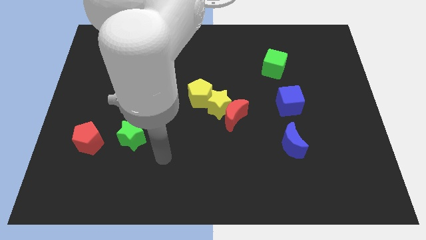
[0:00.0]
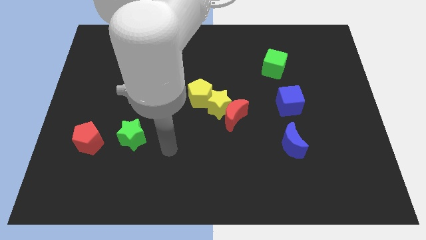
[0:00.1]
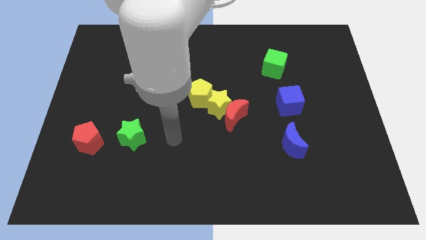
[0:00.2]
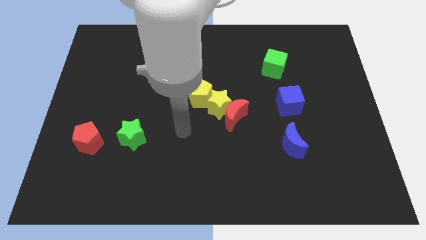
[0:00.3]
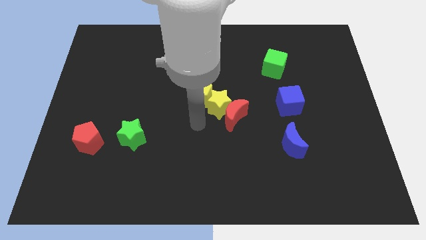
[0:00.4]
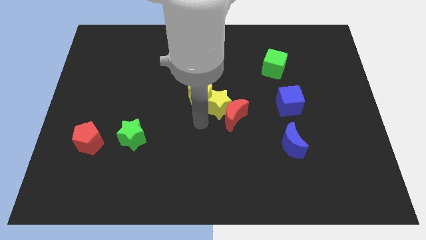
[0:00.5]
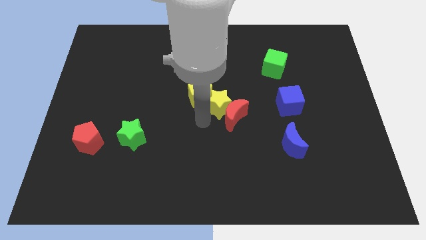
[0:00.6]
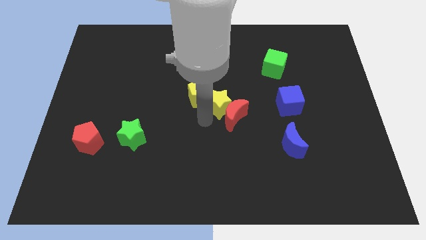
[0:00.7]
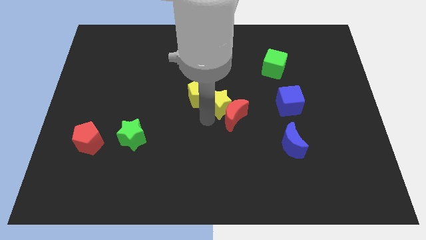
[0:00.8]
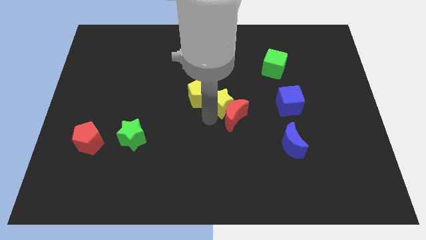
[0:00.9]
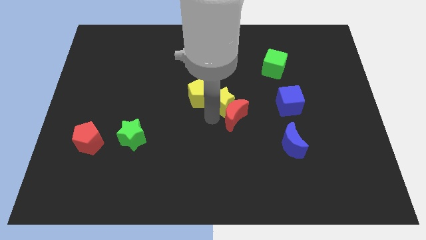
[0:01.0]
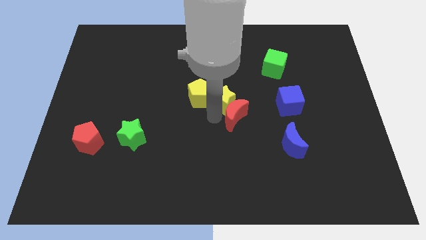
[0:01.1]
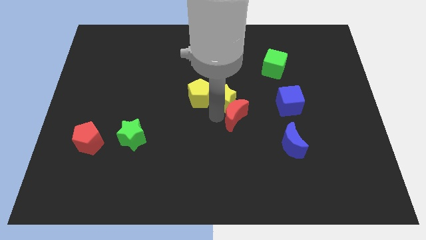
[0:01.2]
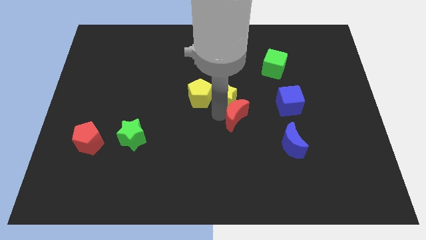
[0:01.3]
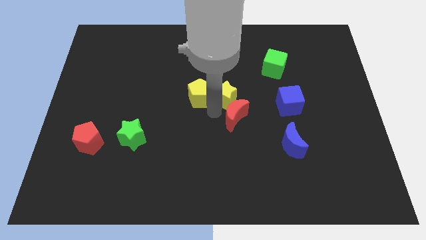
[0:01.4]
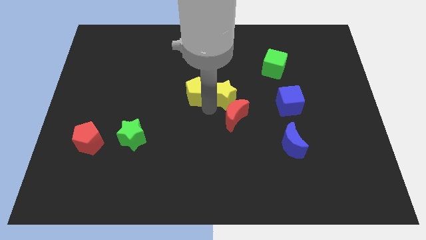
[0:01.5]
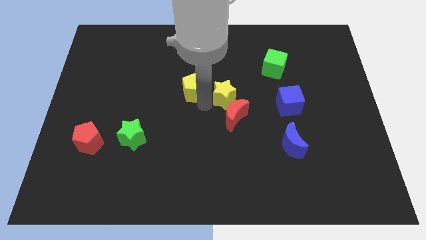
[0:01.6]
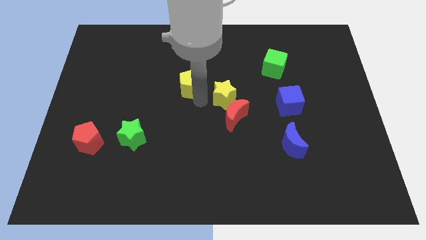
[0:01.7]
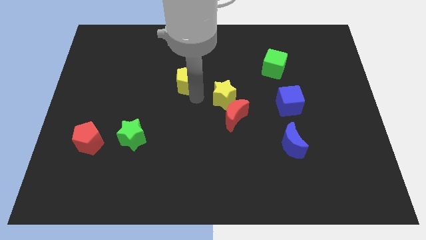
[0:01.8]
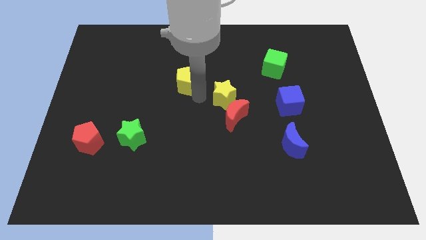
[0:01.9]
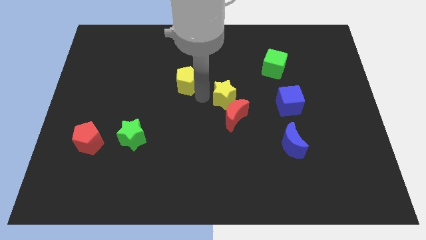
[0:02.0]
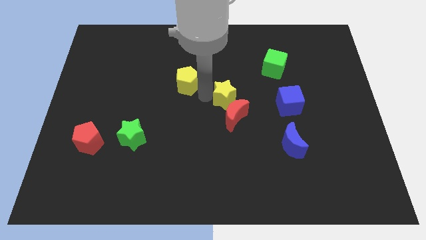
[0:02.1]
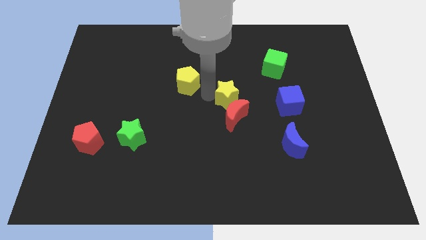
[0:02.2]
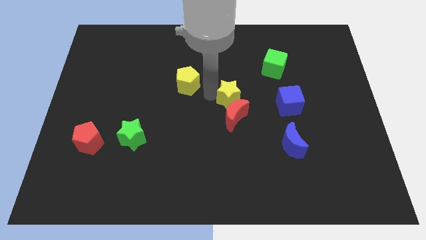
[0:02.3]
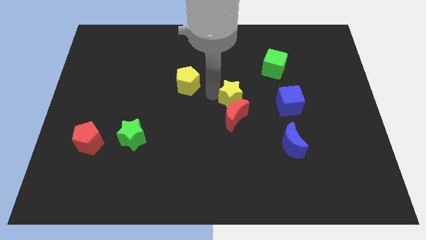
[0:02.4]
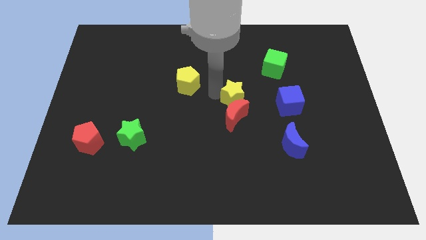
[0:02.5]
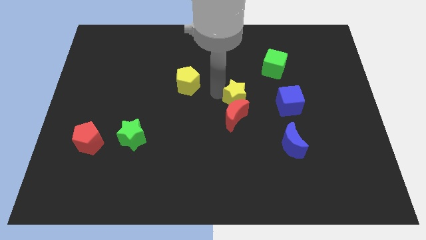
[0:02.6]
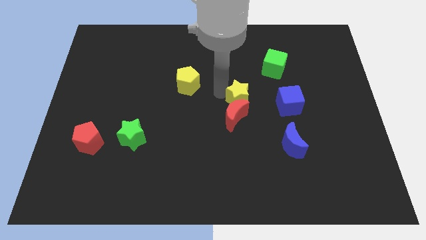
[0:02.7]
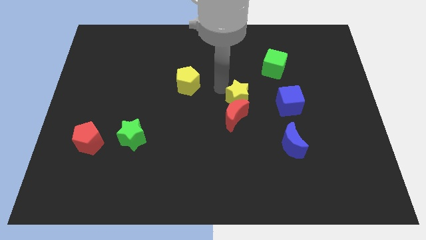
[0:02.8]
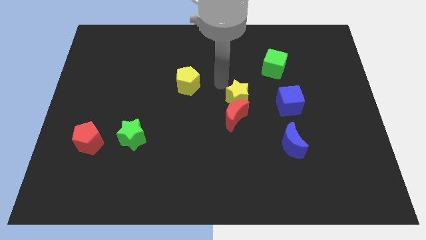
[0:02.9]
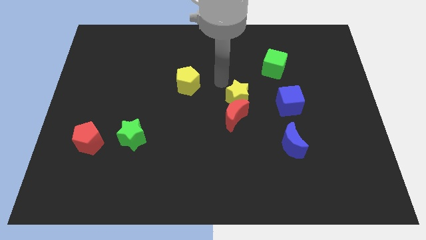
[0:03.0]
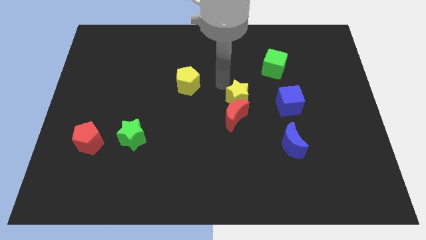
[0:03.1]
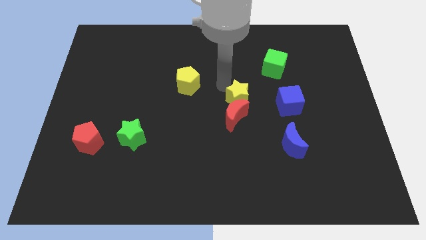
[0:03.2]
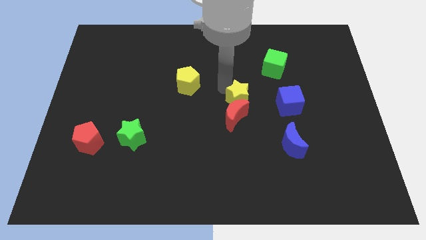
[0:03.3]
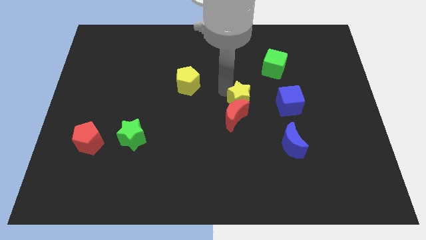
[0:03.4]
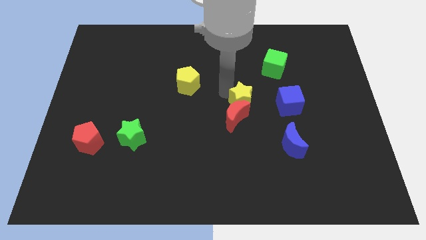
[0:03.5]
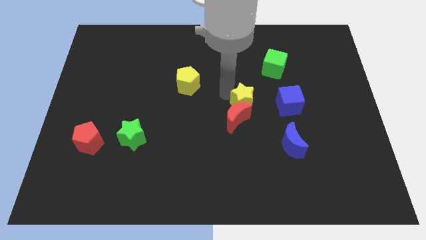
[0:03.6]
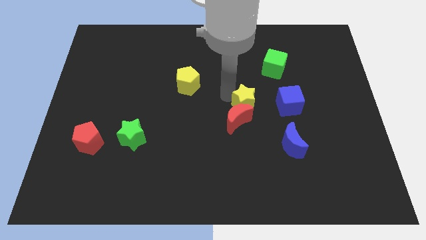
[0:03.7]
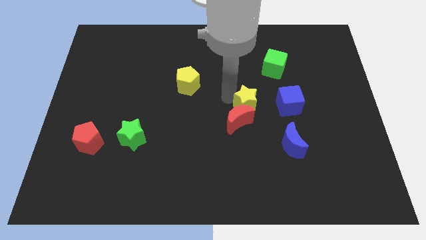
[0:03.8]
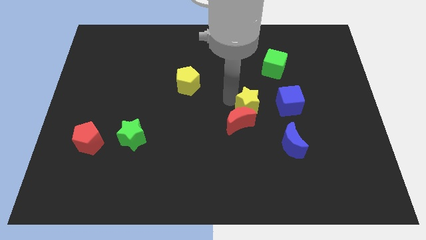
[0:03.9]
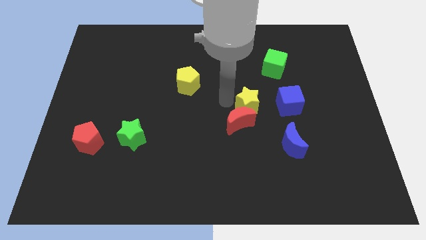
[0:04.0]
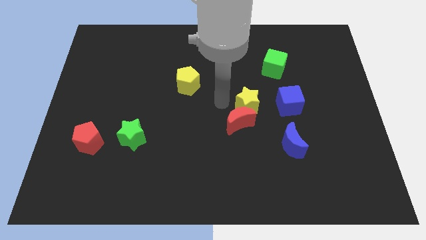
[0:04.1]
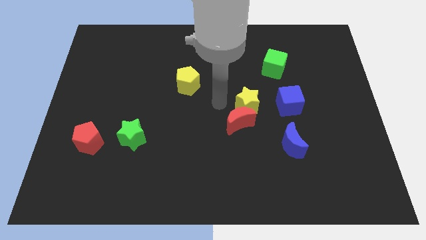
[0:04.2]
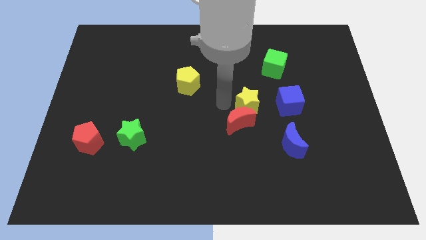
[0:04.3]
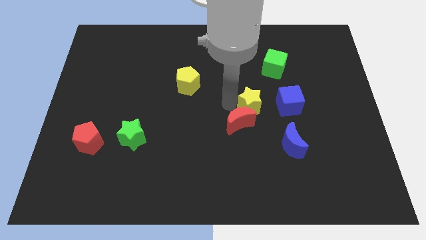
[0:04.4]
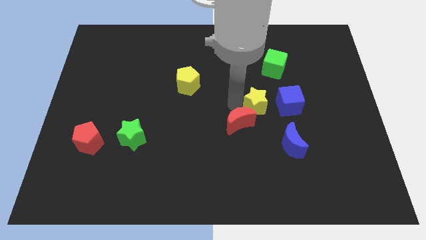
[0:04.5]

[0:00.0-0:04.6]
separate the yellow star from the red moon and yellow pentagon

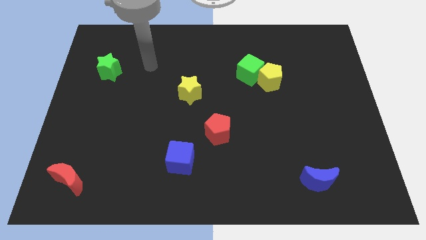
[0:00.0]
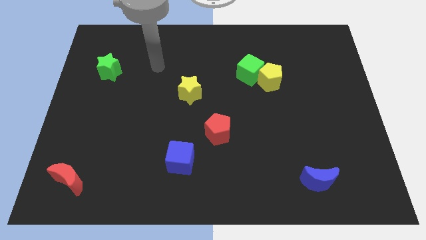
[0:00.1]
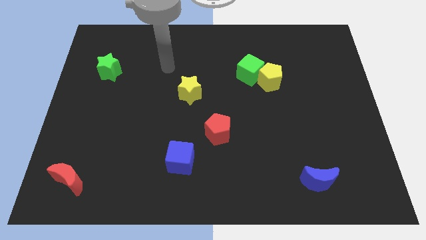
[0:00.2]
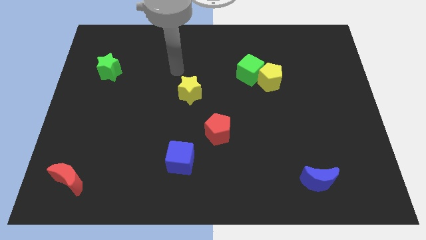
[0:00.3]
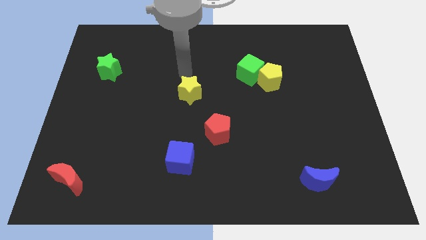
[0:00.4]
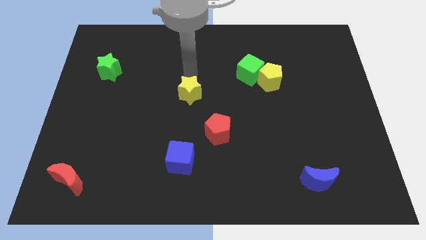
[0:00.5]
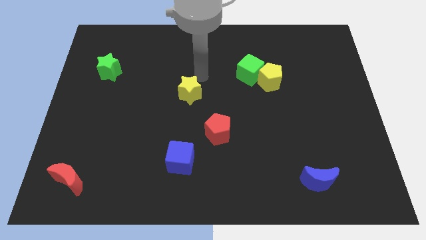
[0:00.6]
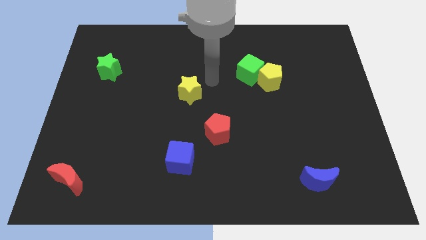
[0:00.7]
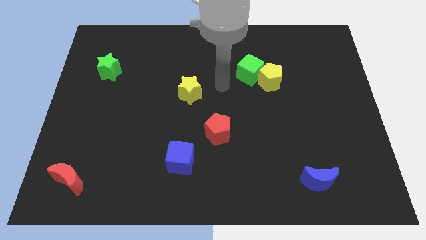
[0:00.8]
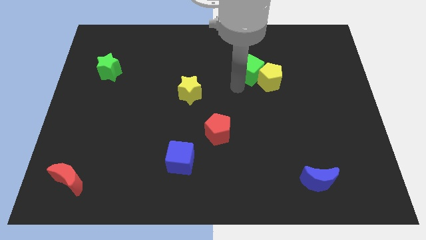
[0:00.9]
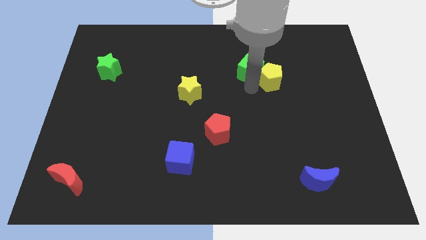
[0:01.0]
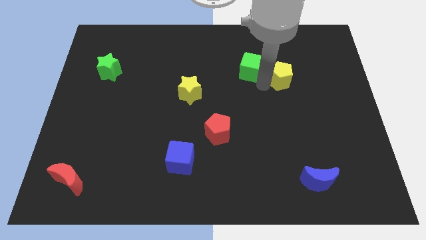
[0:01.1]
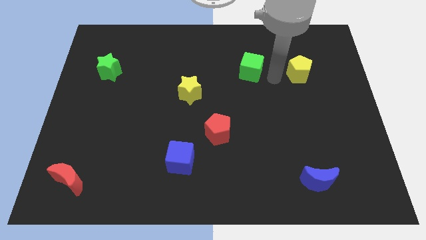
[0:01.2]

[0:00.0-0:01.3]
separate the green cube from the yellow pentagon

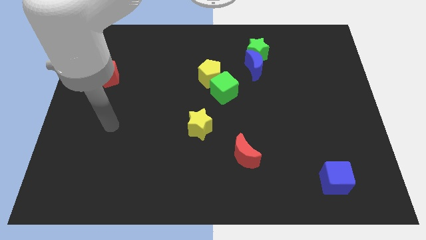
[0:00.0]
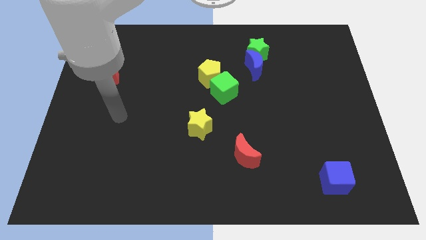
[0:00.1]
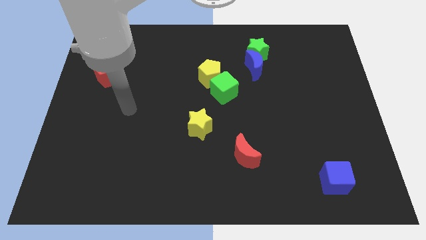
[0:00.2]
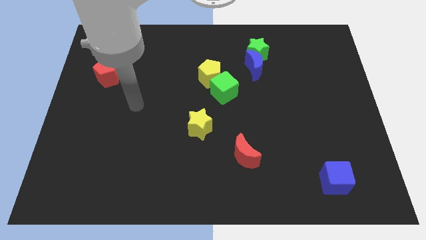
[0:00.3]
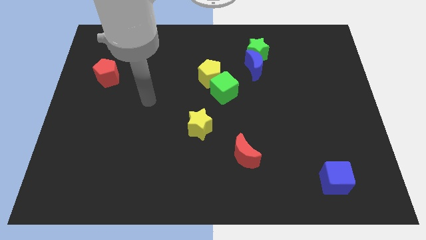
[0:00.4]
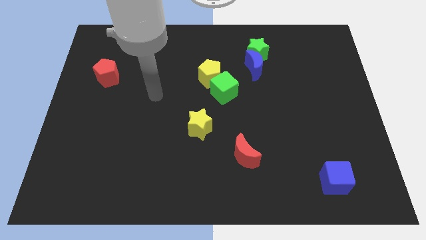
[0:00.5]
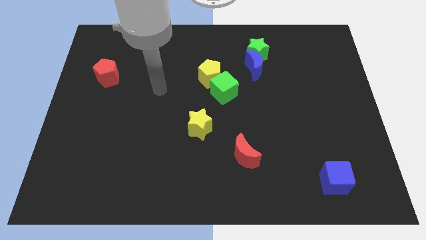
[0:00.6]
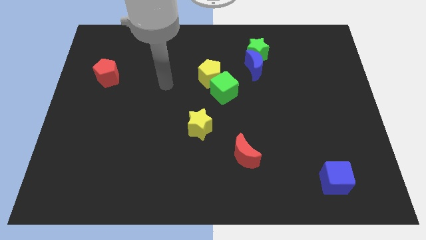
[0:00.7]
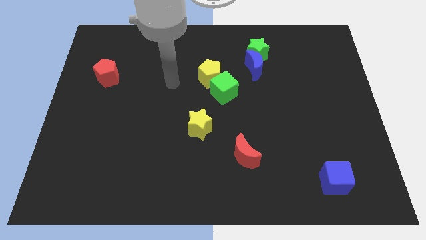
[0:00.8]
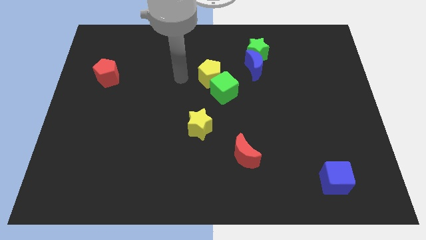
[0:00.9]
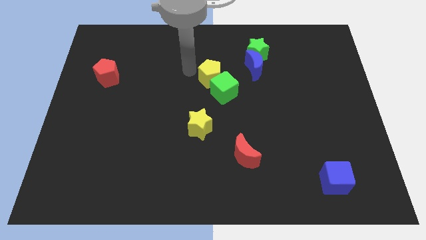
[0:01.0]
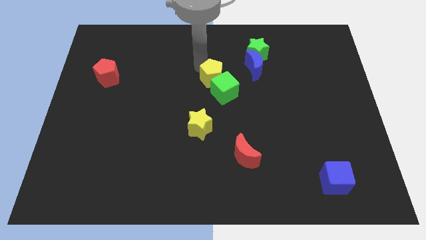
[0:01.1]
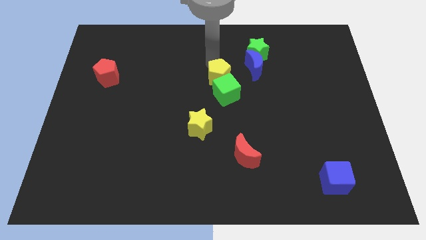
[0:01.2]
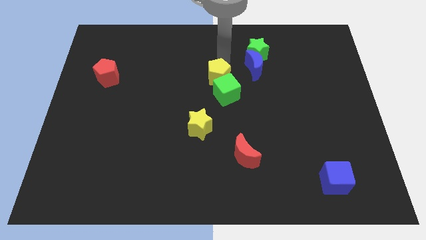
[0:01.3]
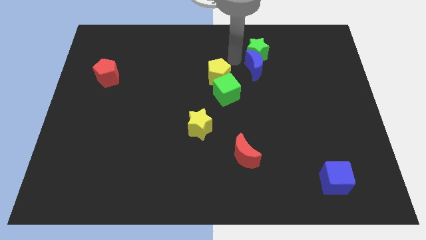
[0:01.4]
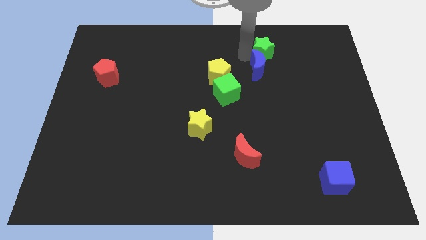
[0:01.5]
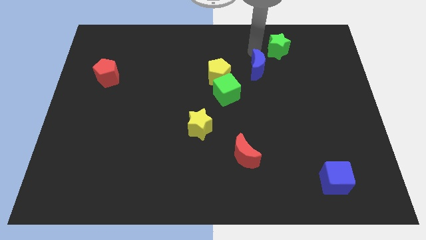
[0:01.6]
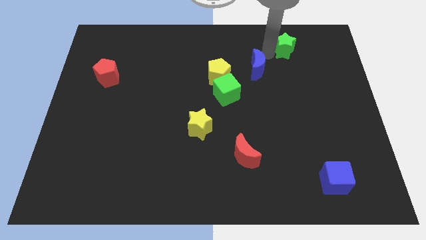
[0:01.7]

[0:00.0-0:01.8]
separate the blue moon from the green star

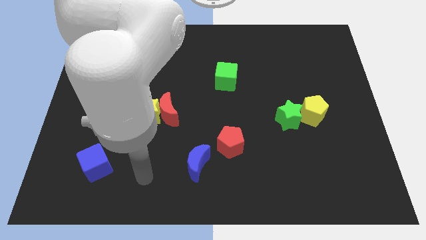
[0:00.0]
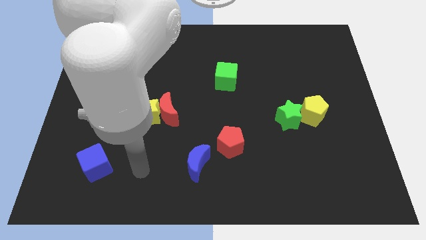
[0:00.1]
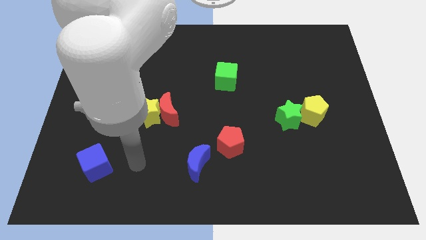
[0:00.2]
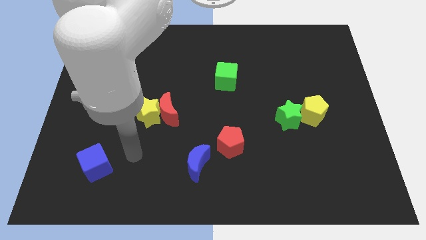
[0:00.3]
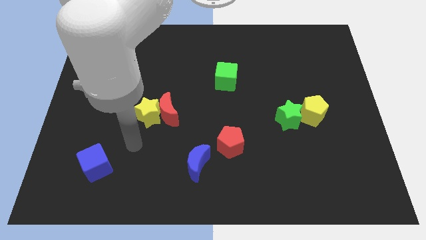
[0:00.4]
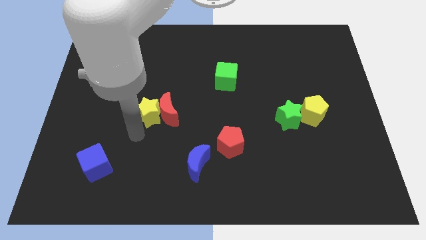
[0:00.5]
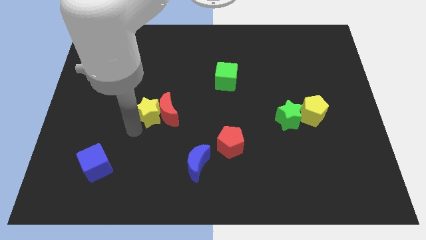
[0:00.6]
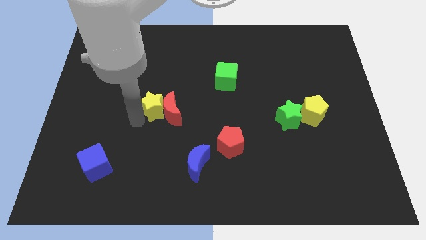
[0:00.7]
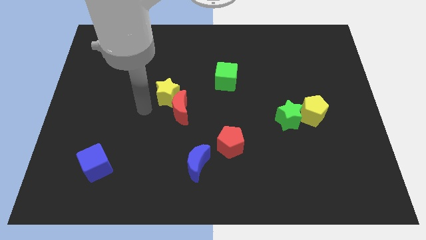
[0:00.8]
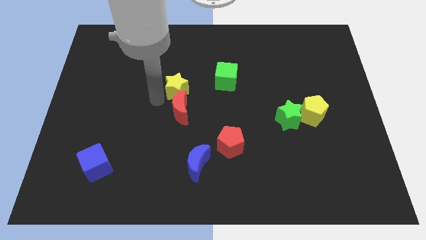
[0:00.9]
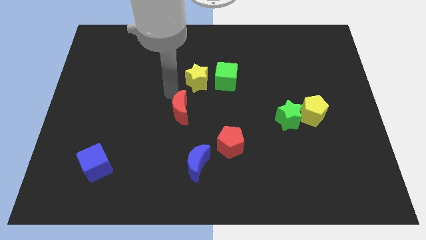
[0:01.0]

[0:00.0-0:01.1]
separate the red moon from the yellow star

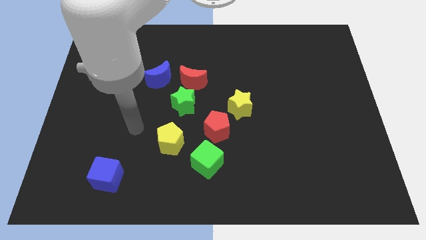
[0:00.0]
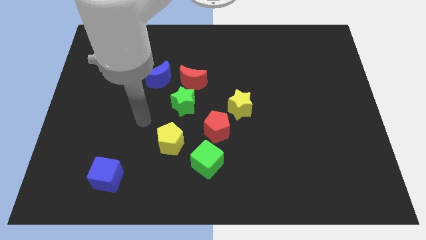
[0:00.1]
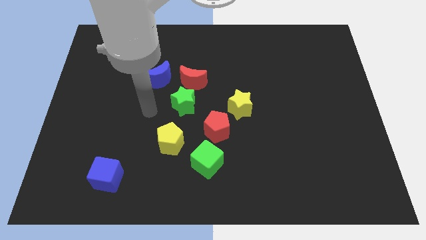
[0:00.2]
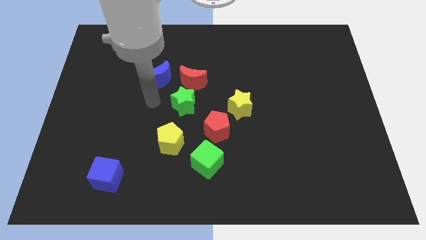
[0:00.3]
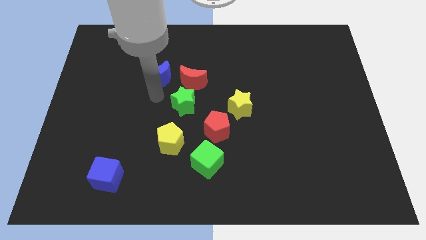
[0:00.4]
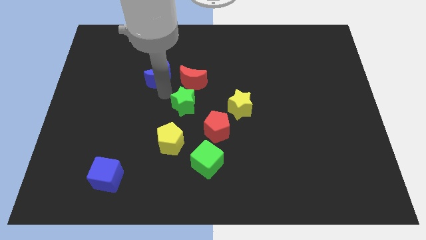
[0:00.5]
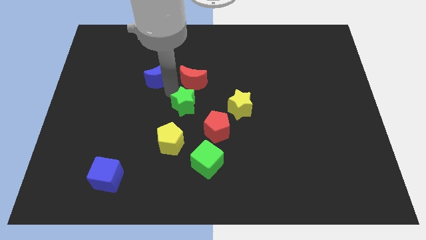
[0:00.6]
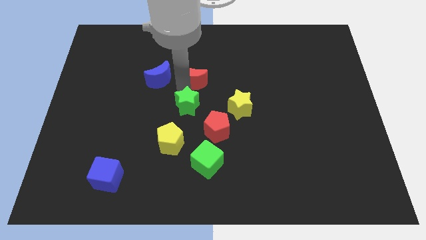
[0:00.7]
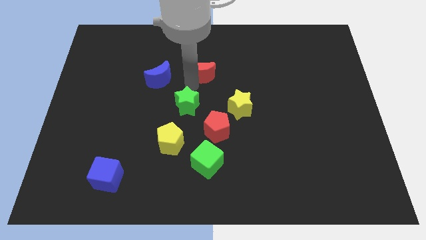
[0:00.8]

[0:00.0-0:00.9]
move the green star away from the red moon
